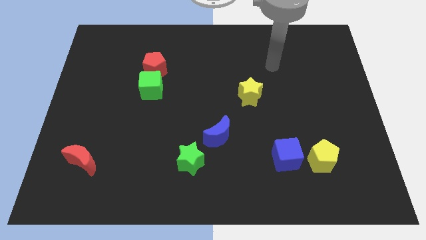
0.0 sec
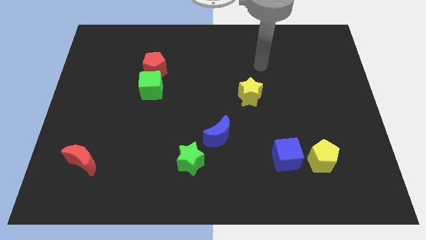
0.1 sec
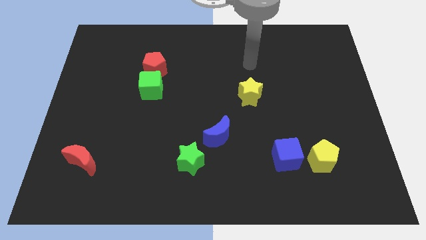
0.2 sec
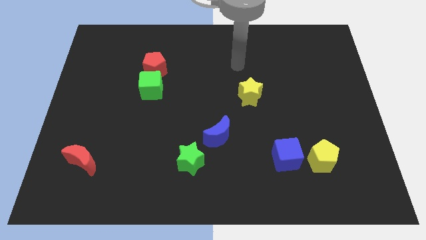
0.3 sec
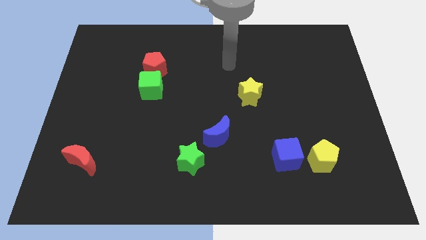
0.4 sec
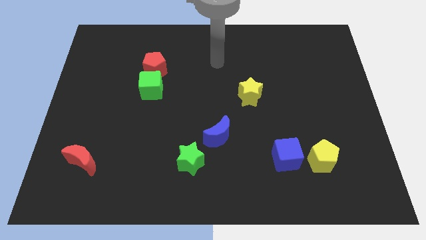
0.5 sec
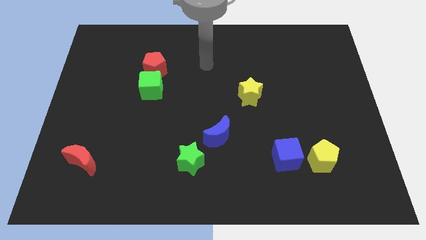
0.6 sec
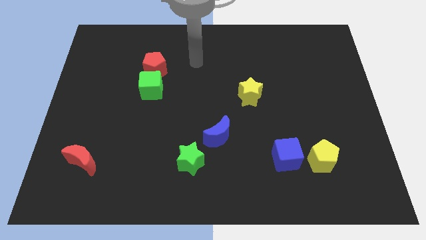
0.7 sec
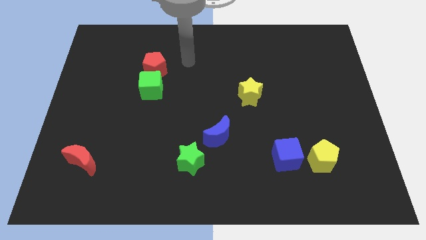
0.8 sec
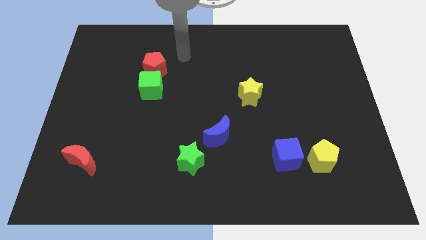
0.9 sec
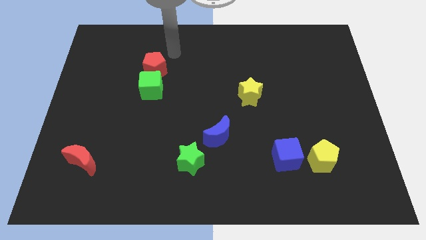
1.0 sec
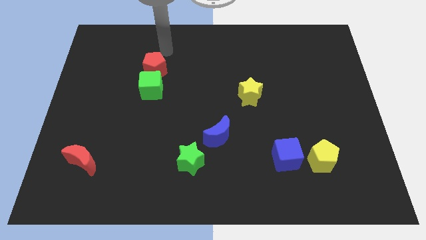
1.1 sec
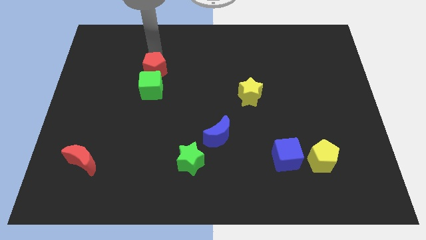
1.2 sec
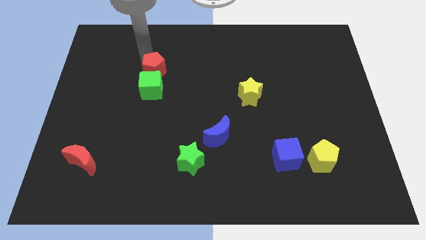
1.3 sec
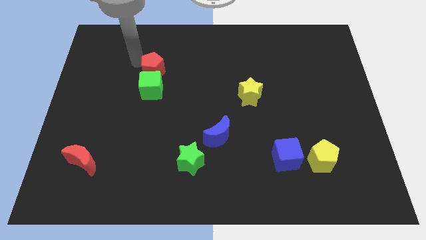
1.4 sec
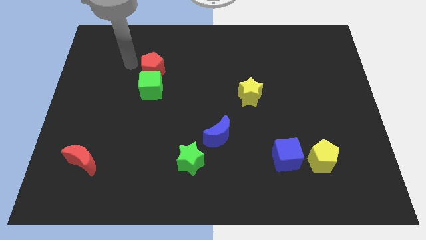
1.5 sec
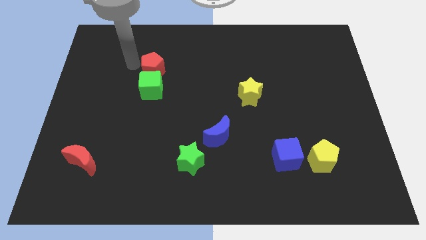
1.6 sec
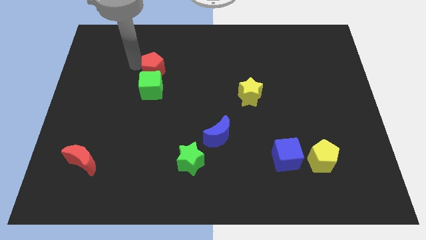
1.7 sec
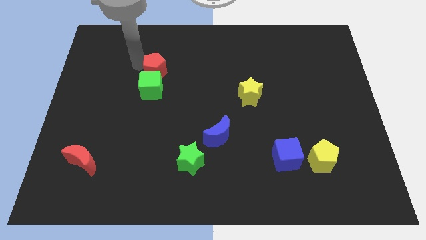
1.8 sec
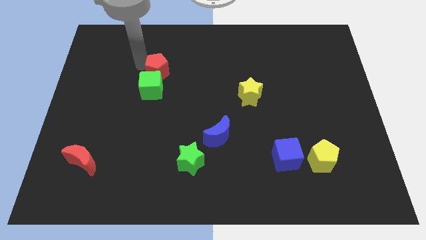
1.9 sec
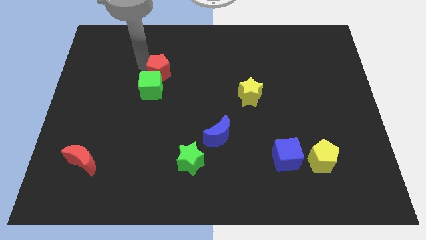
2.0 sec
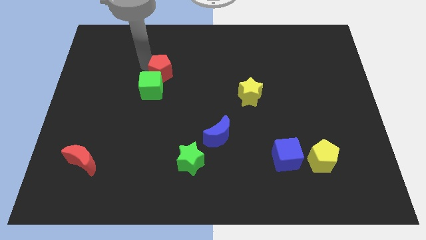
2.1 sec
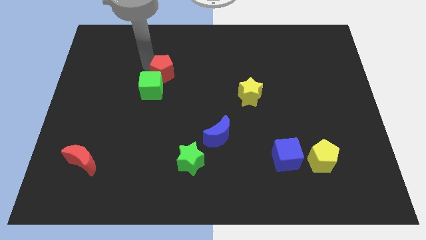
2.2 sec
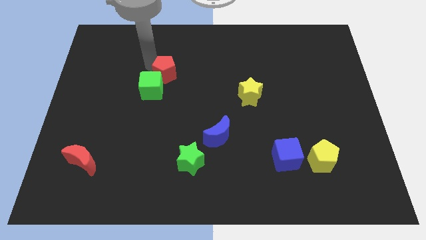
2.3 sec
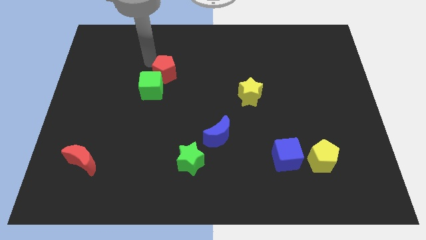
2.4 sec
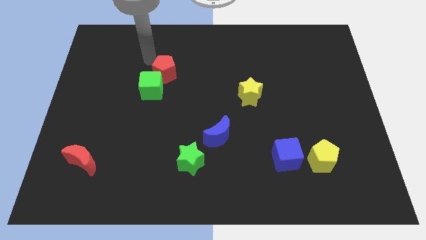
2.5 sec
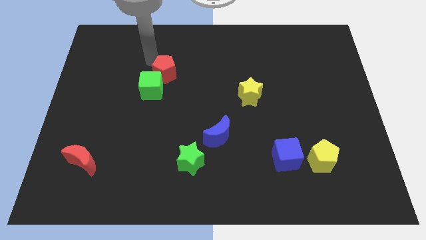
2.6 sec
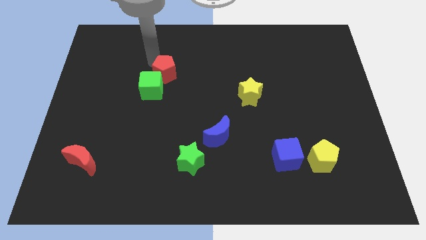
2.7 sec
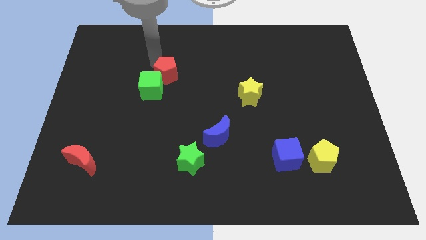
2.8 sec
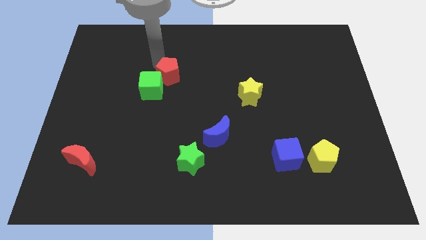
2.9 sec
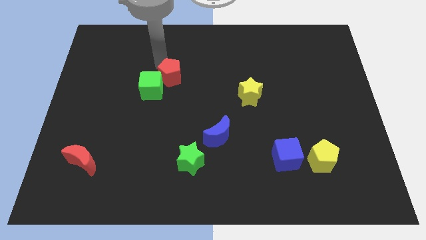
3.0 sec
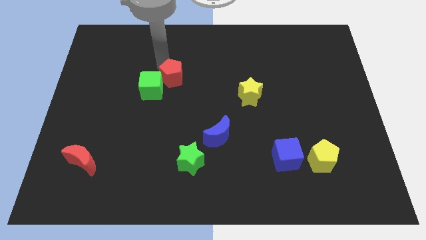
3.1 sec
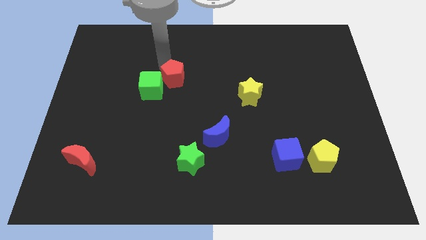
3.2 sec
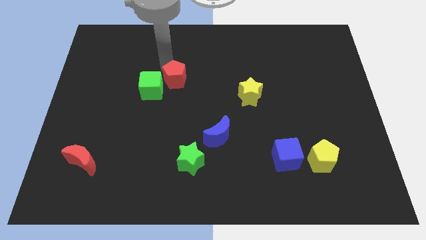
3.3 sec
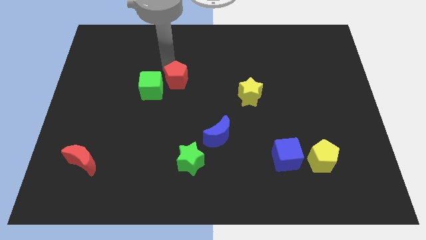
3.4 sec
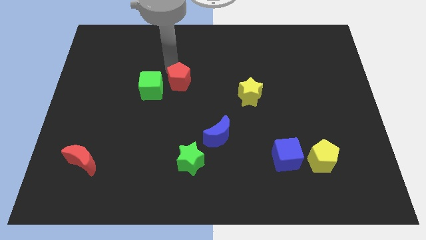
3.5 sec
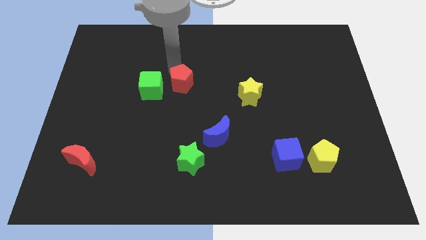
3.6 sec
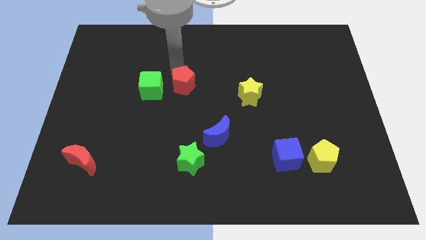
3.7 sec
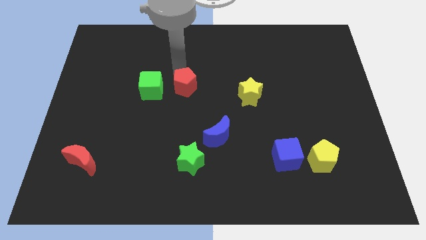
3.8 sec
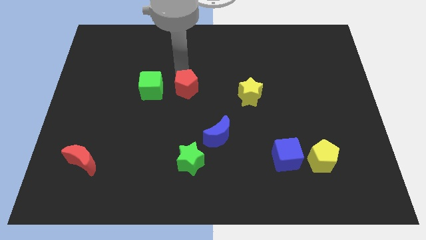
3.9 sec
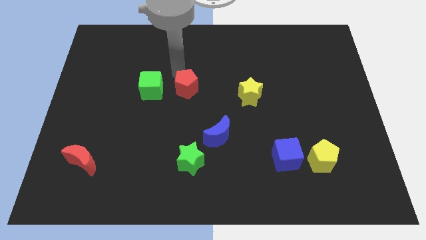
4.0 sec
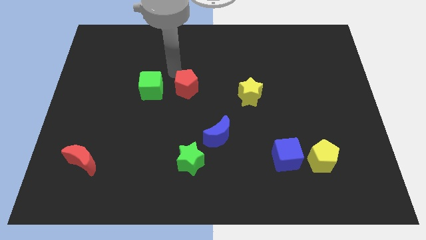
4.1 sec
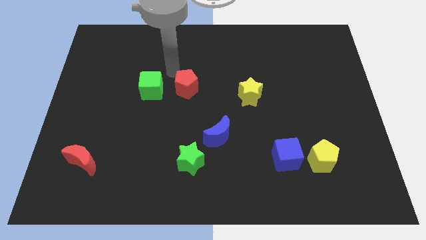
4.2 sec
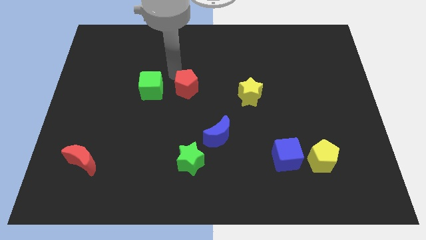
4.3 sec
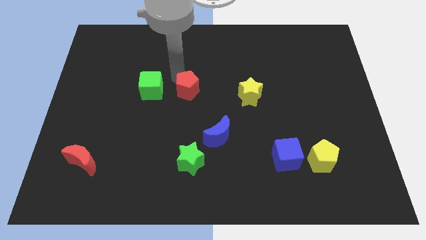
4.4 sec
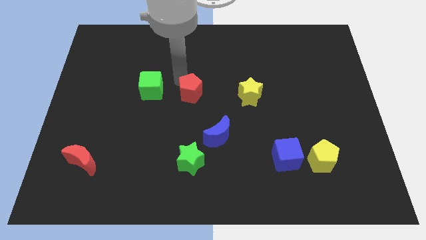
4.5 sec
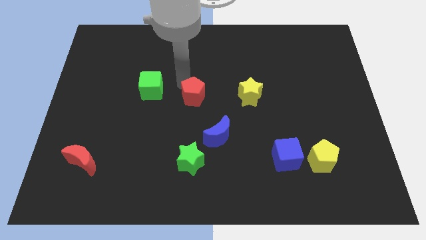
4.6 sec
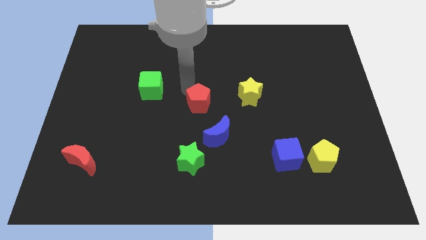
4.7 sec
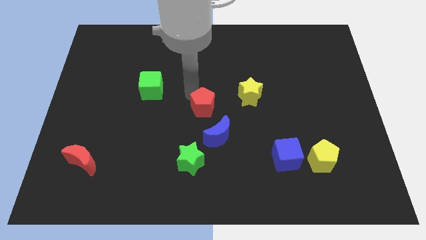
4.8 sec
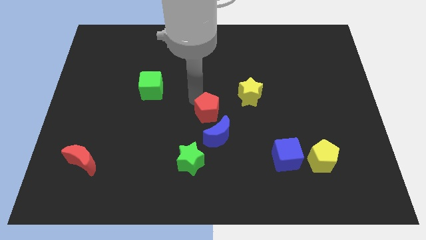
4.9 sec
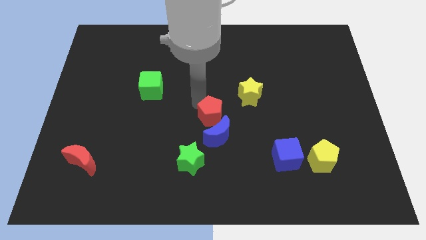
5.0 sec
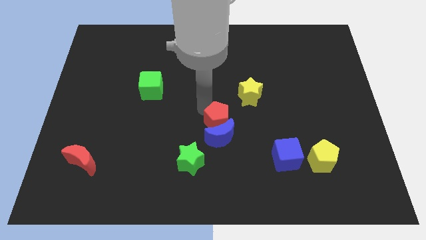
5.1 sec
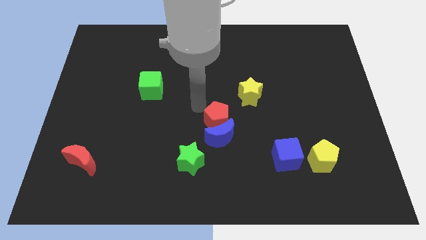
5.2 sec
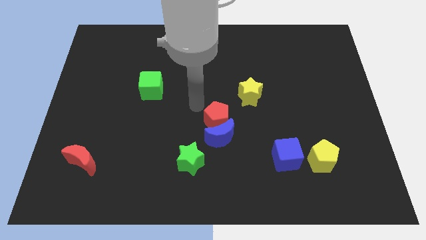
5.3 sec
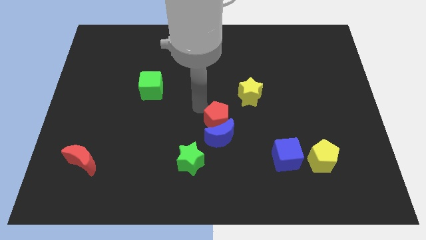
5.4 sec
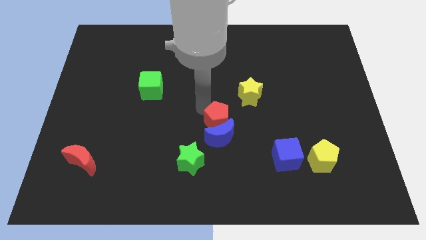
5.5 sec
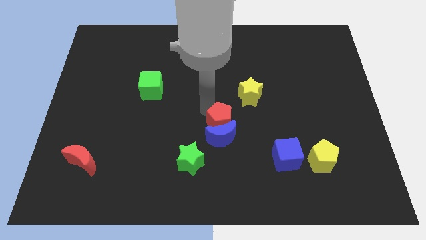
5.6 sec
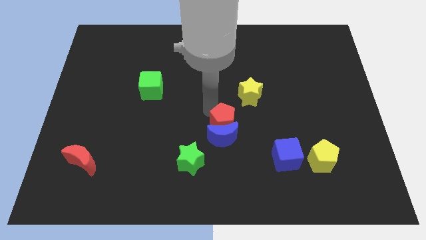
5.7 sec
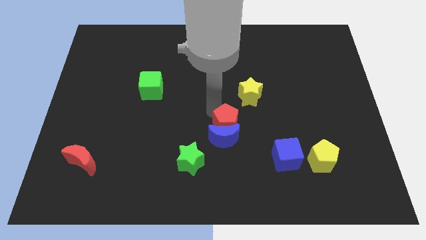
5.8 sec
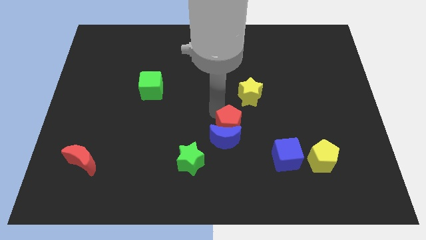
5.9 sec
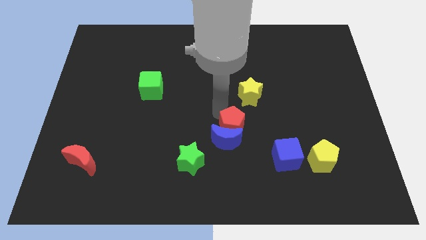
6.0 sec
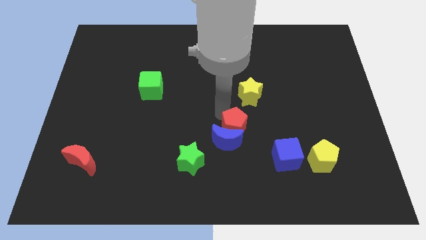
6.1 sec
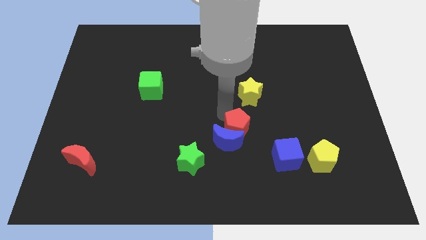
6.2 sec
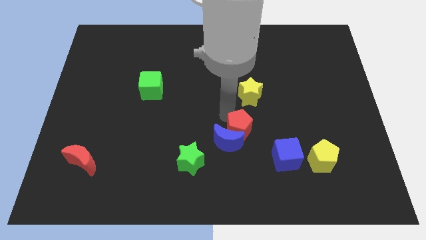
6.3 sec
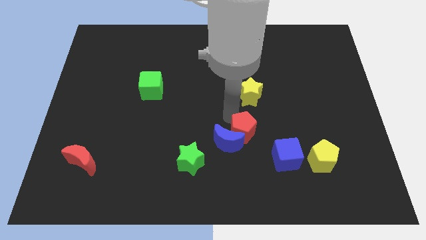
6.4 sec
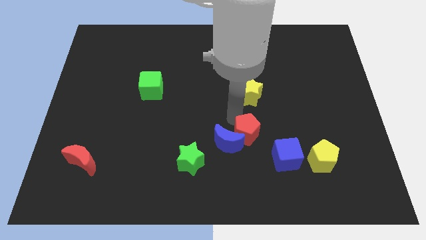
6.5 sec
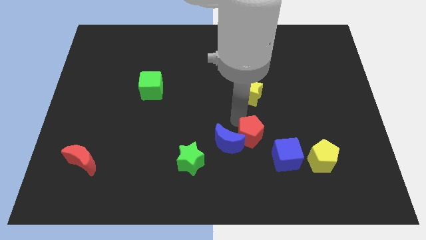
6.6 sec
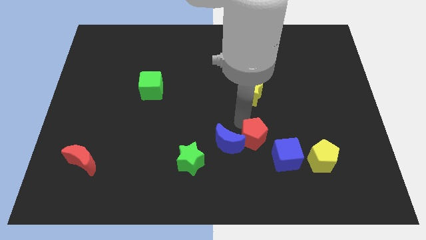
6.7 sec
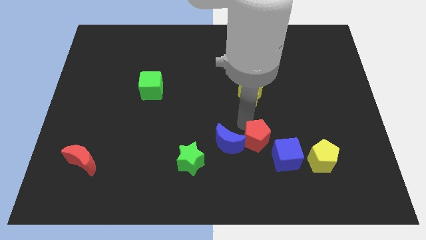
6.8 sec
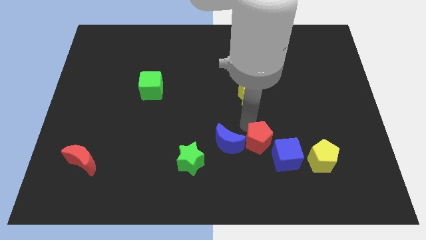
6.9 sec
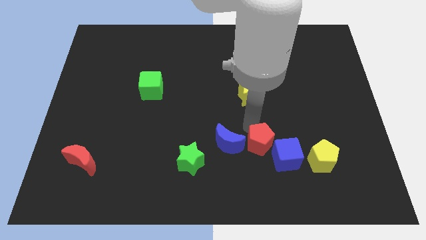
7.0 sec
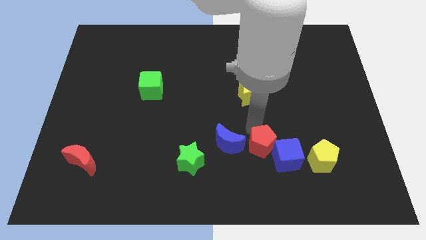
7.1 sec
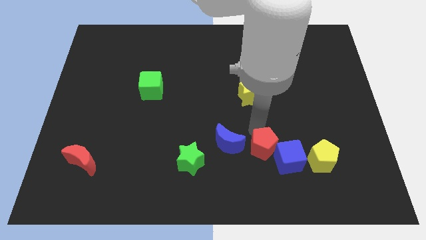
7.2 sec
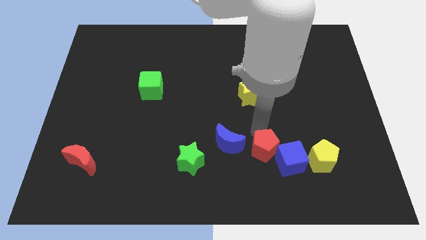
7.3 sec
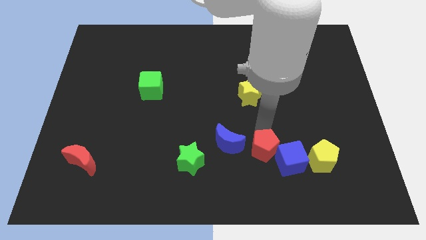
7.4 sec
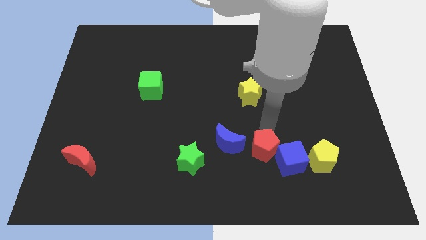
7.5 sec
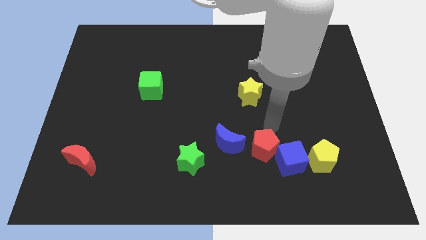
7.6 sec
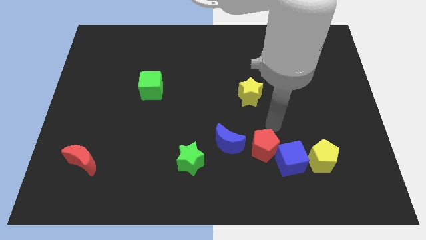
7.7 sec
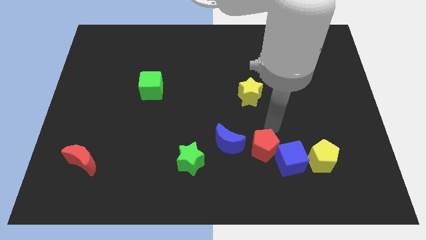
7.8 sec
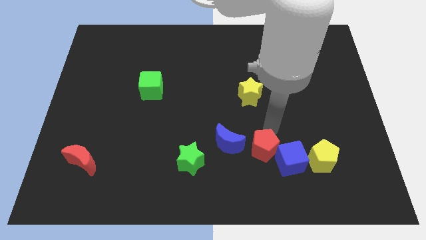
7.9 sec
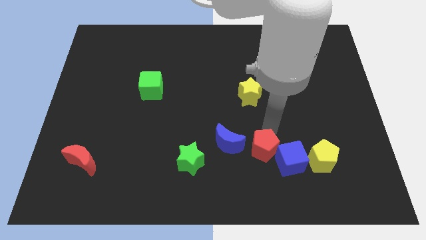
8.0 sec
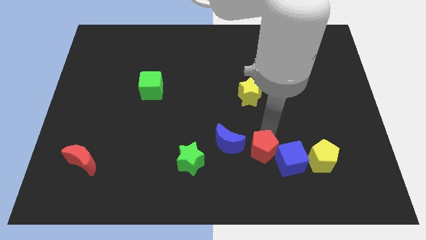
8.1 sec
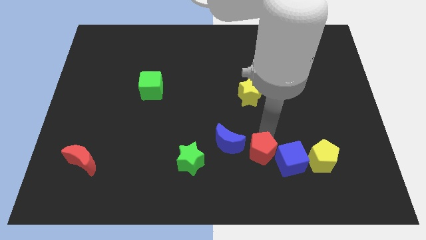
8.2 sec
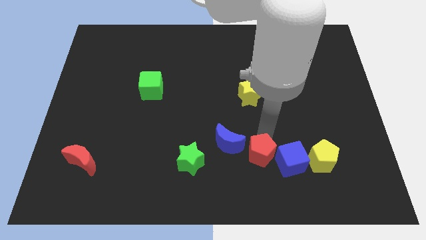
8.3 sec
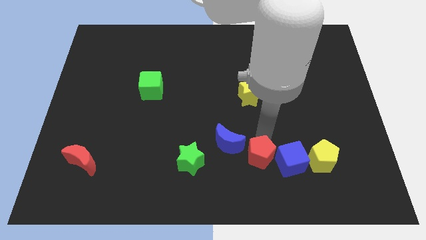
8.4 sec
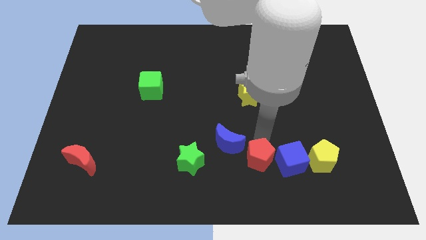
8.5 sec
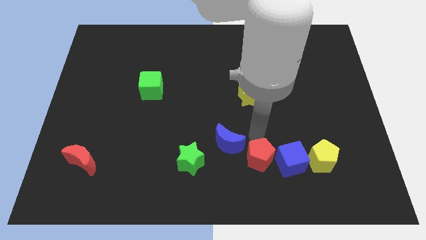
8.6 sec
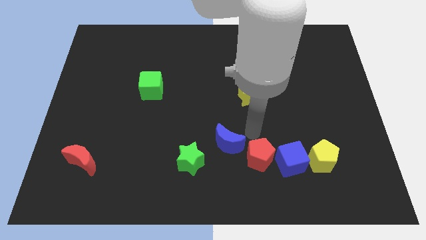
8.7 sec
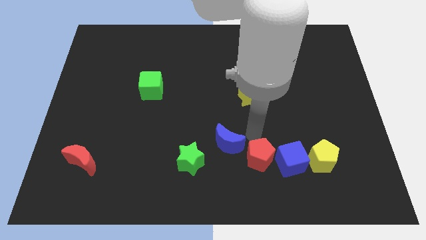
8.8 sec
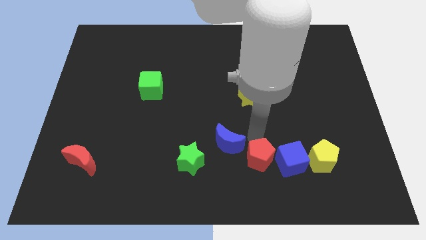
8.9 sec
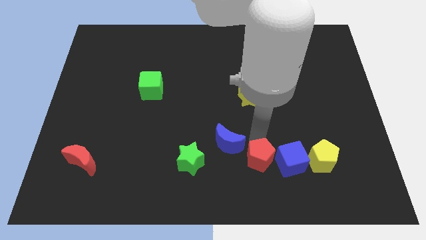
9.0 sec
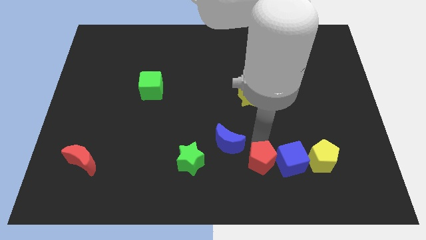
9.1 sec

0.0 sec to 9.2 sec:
slide the red pentagon to the bottom left of the blue cube
